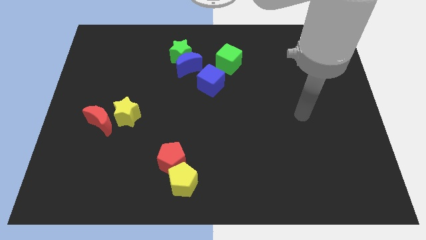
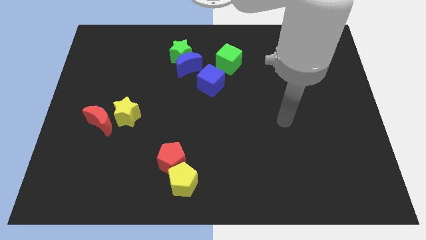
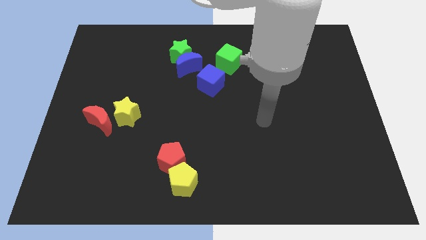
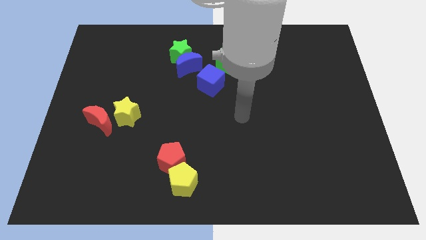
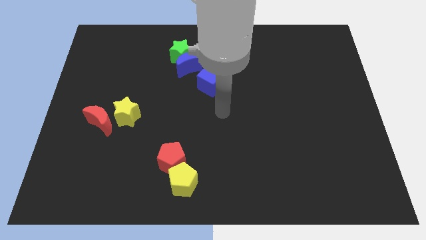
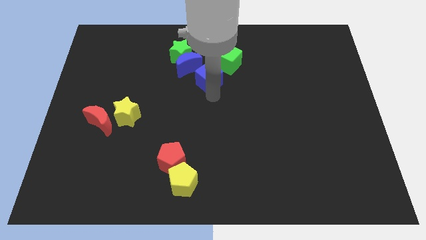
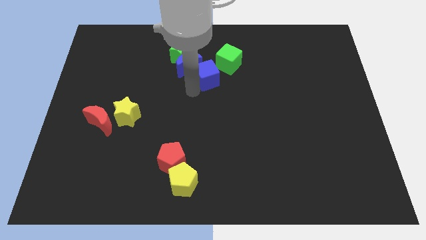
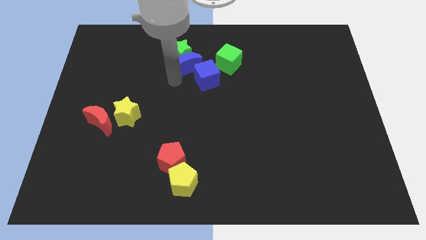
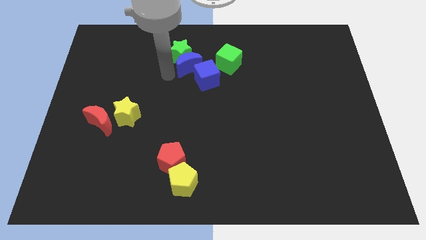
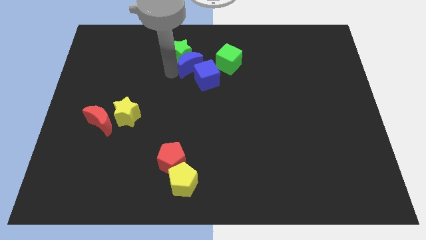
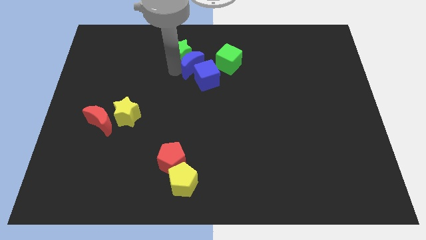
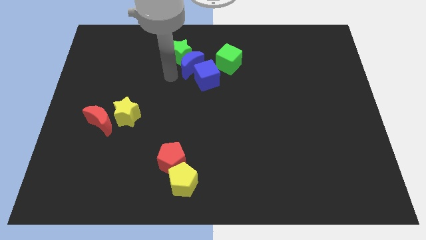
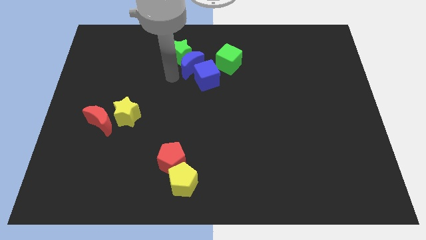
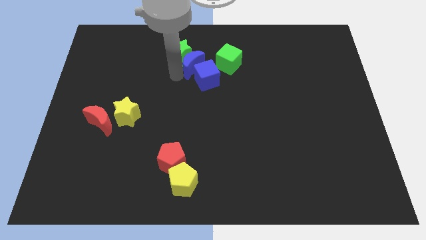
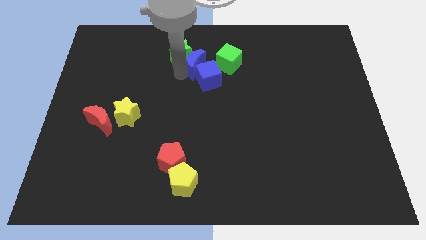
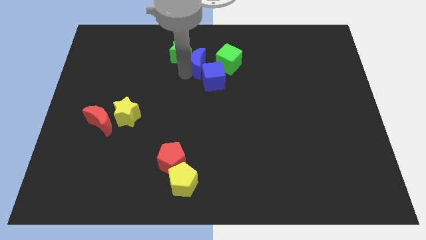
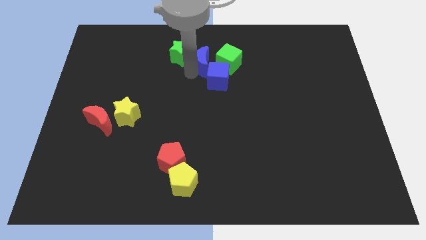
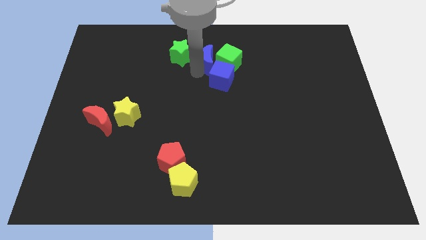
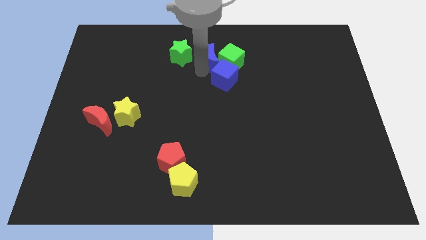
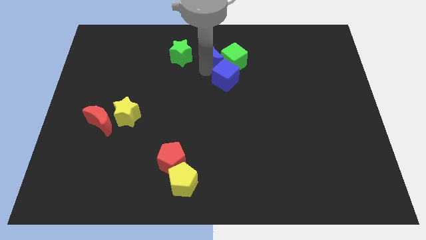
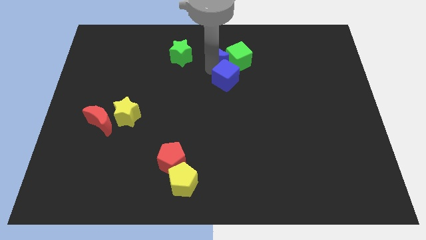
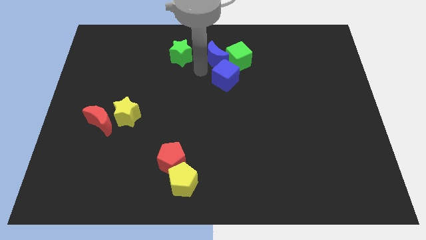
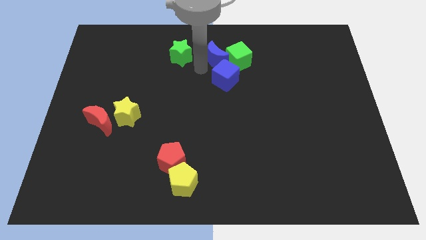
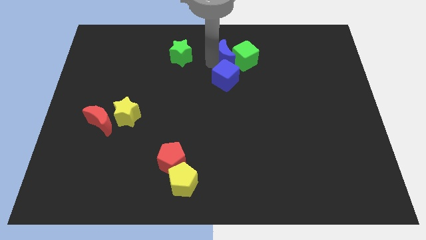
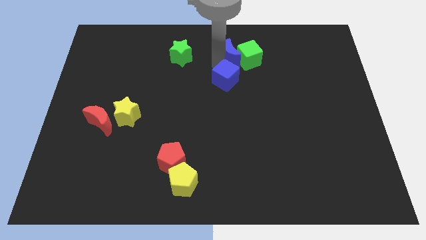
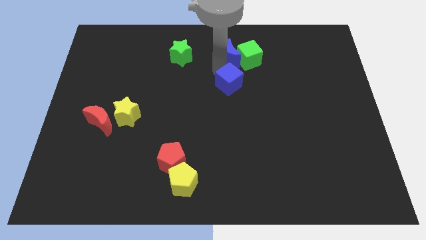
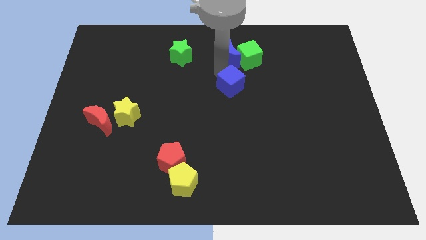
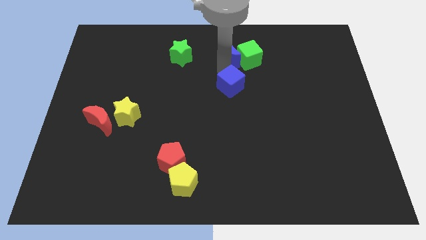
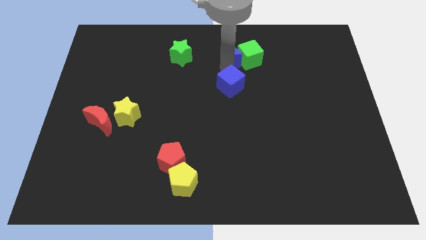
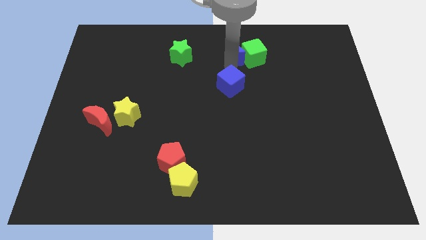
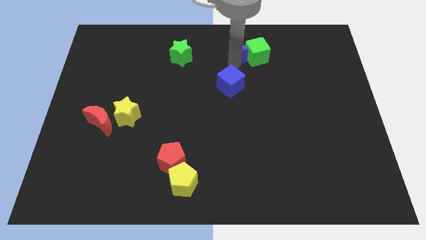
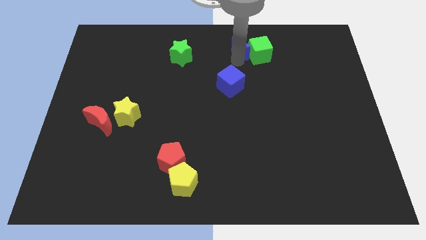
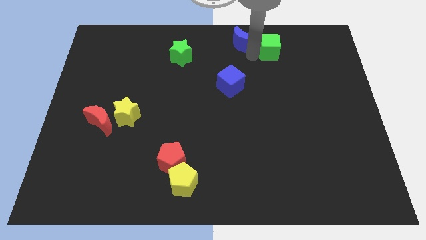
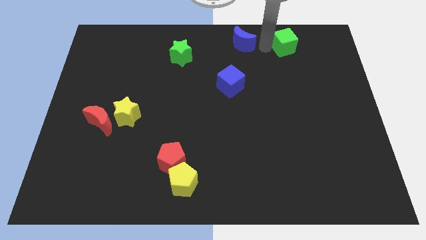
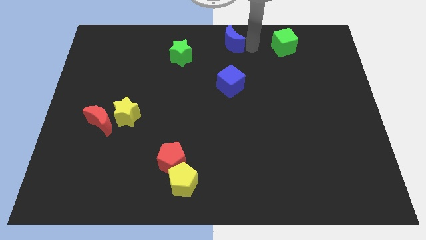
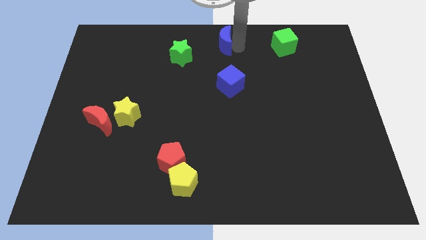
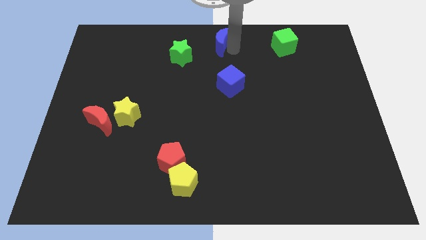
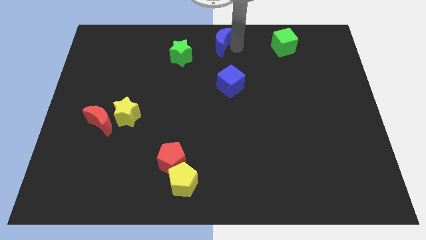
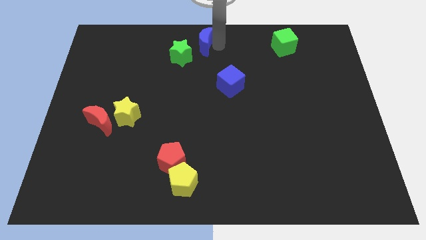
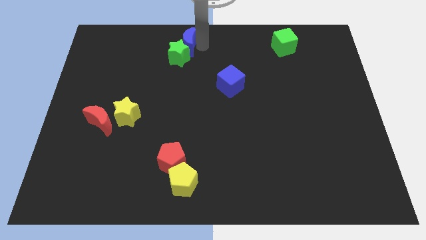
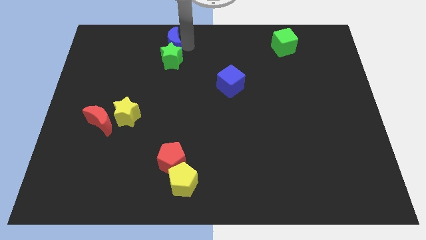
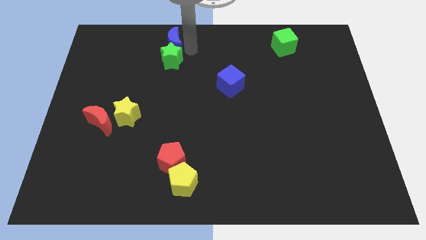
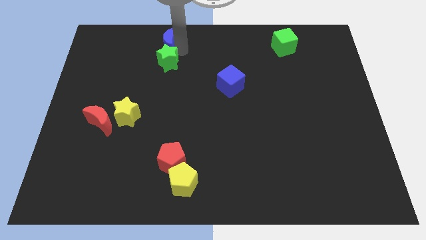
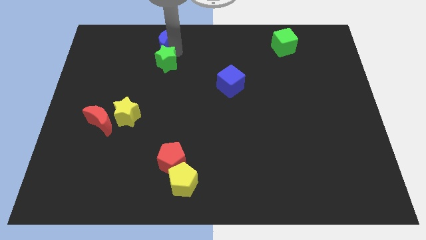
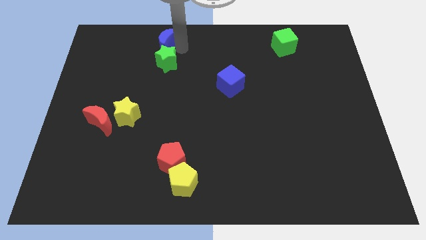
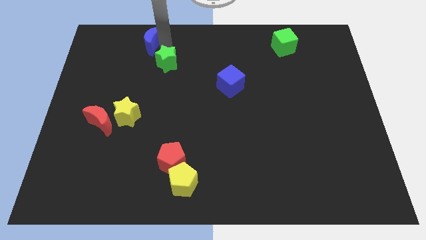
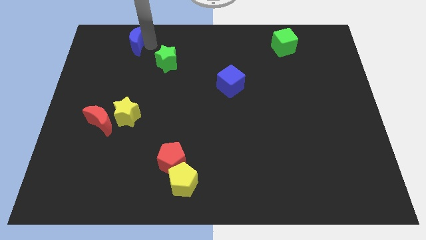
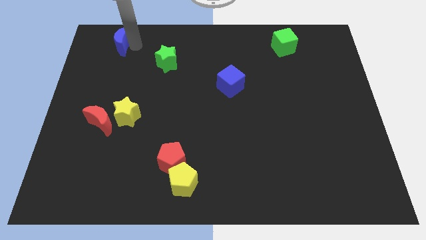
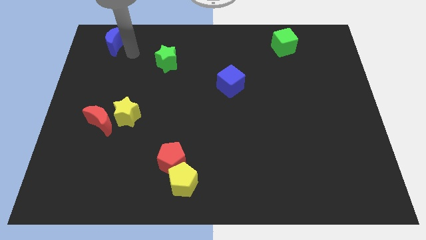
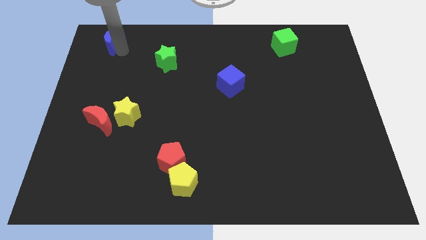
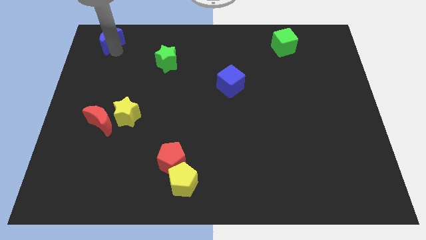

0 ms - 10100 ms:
move the blue moon to the upper left corner

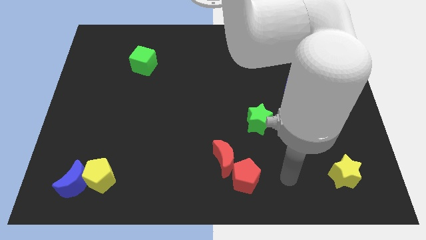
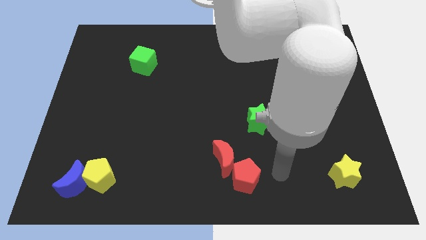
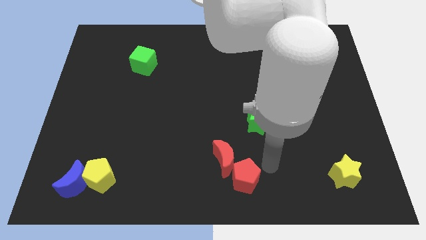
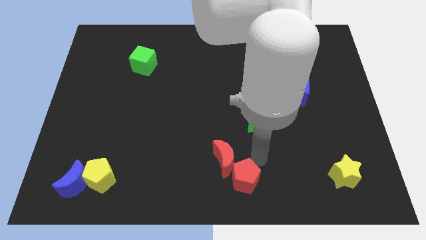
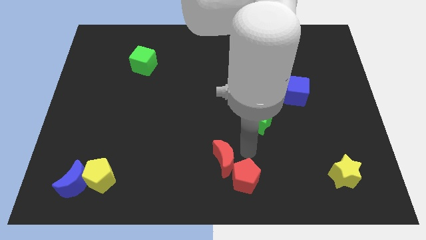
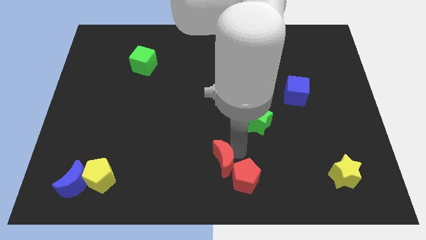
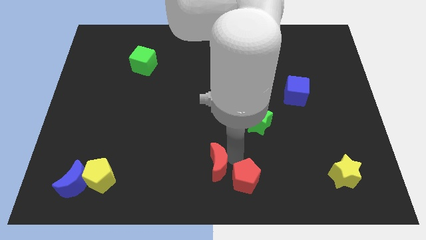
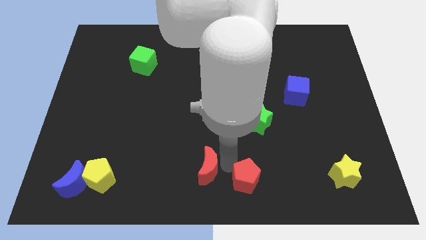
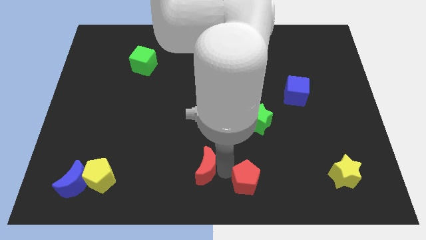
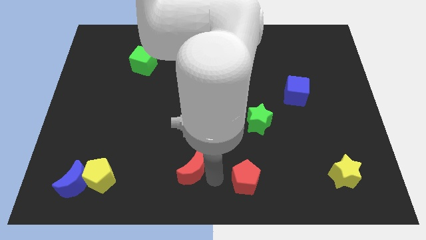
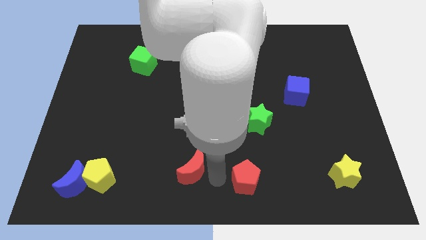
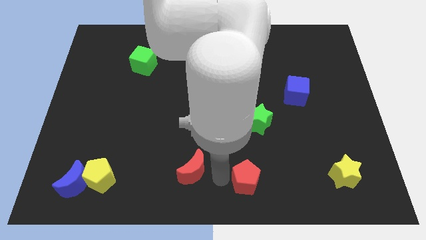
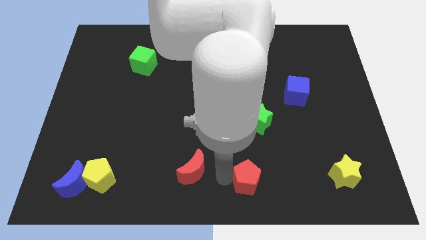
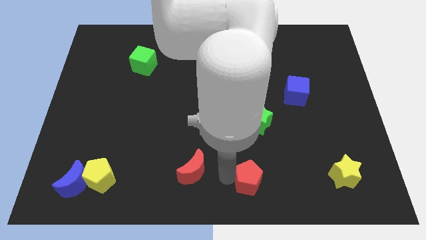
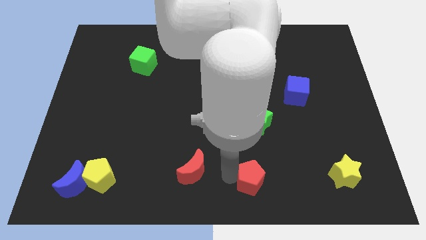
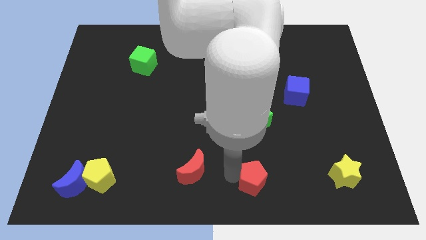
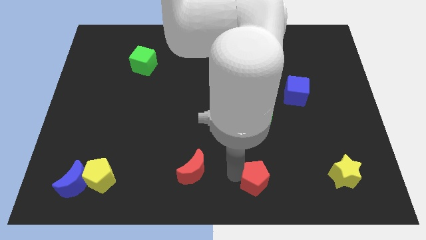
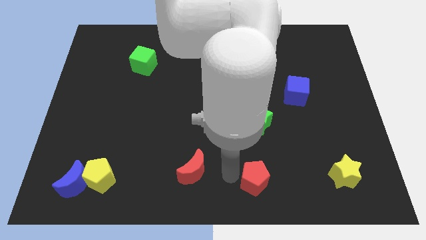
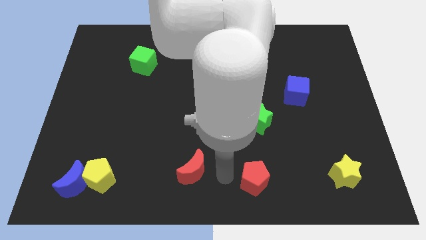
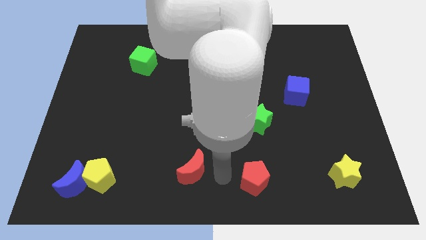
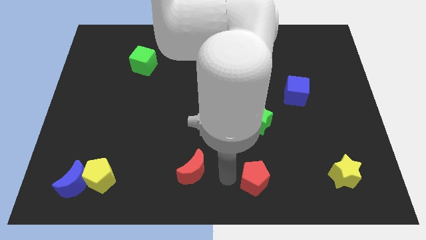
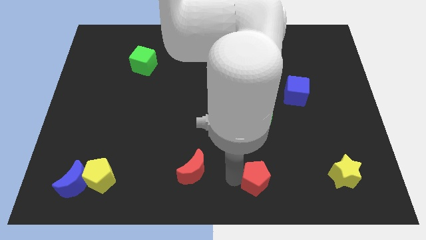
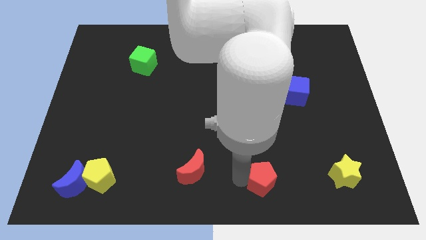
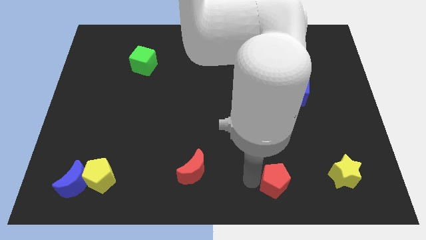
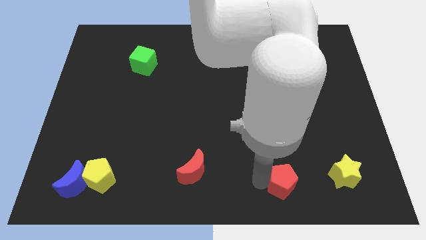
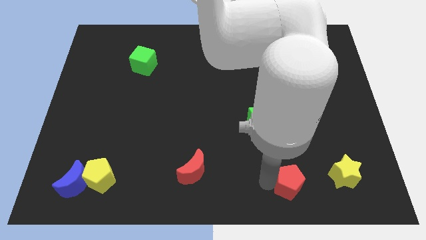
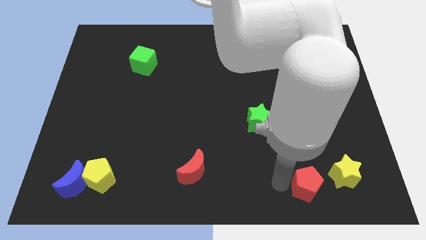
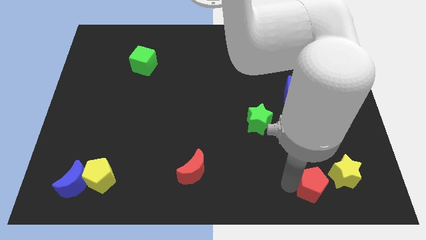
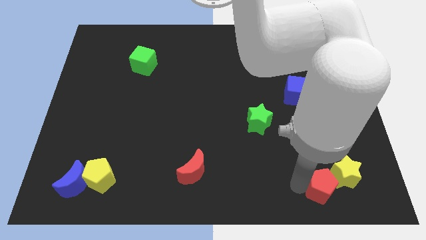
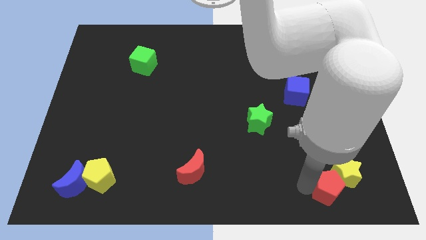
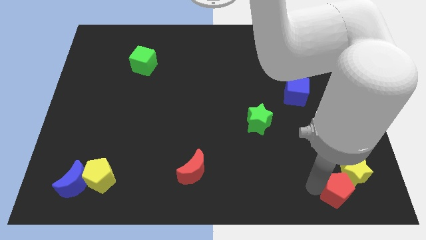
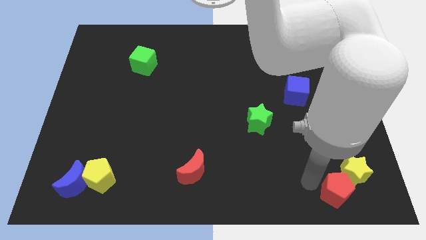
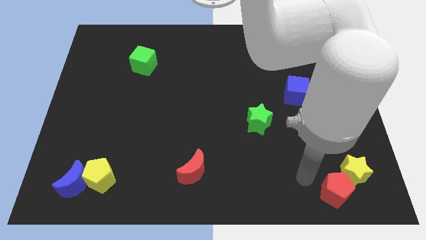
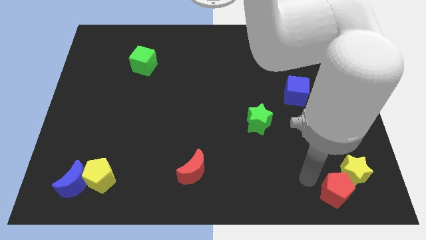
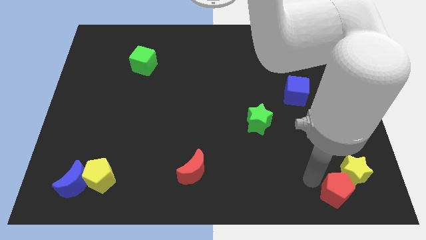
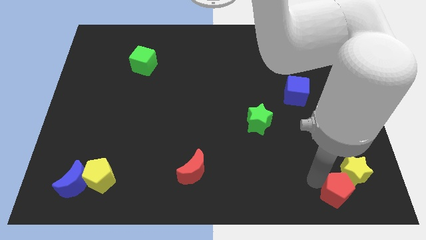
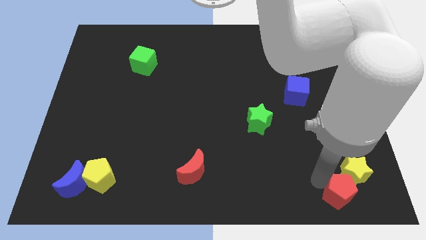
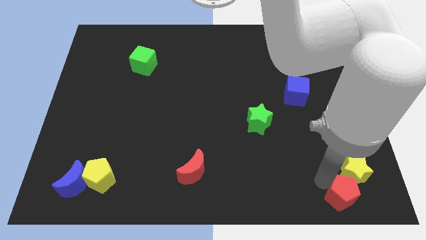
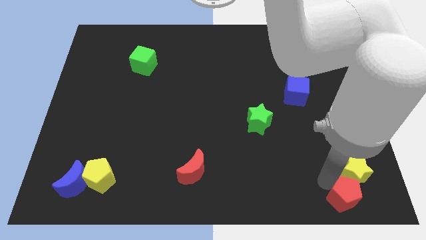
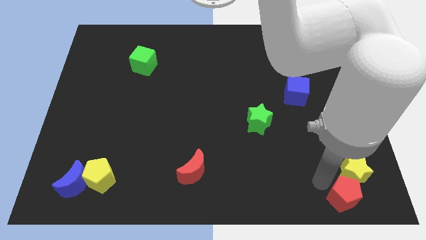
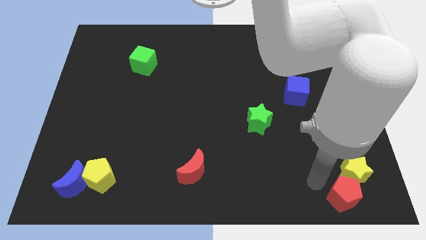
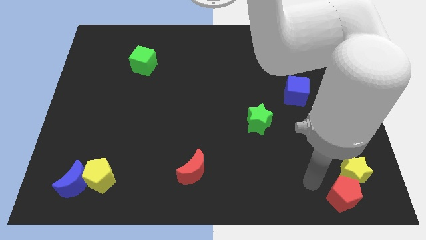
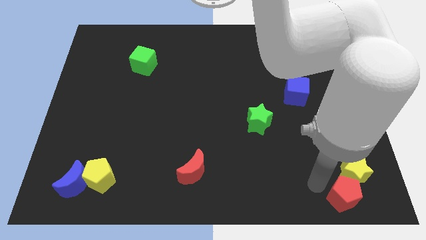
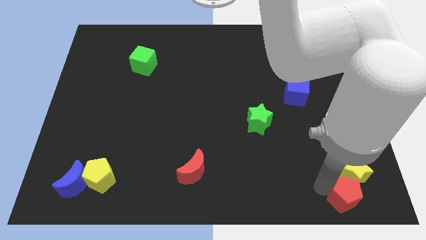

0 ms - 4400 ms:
move the red pentagon to the bottom right of the board
